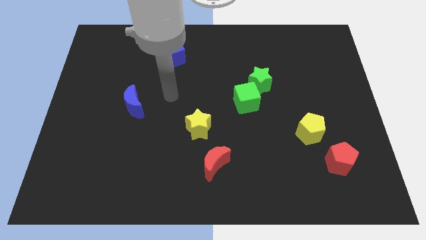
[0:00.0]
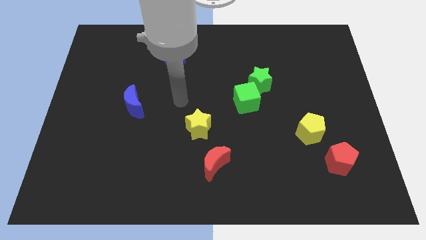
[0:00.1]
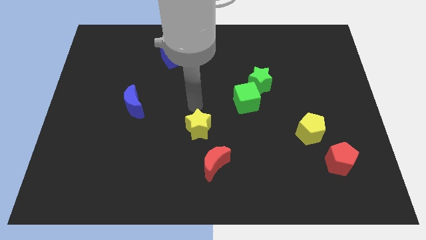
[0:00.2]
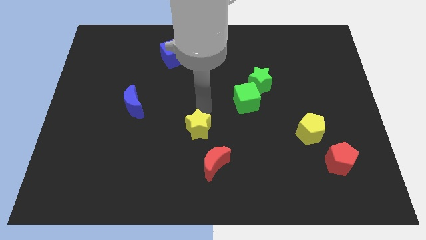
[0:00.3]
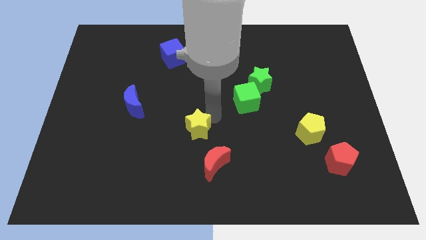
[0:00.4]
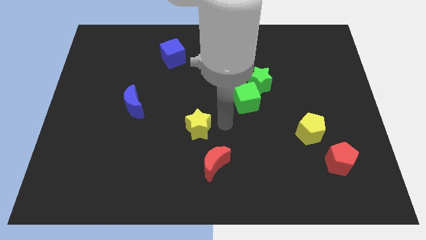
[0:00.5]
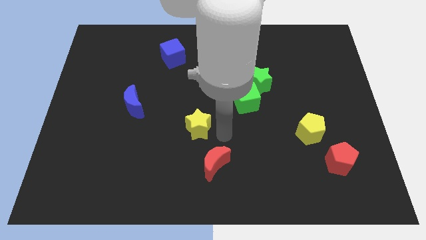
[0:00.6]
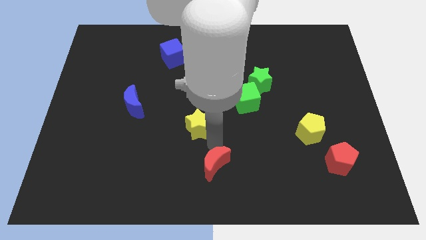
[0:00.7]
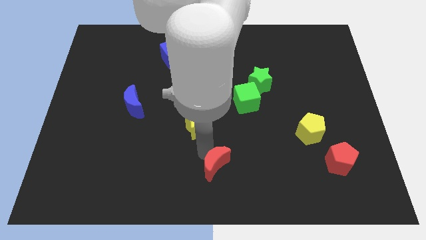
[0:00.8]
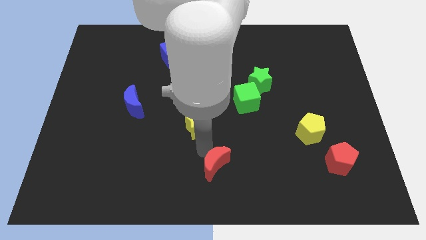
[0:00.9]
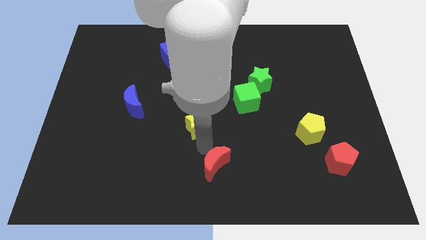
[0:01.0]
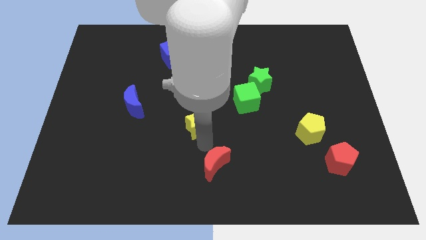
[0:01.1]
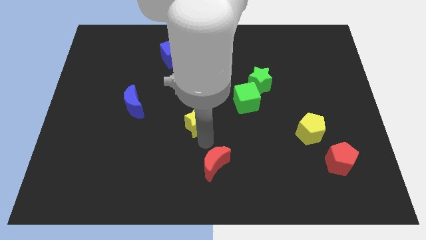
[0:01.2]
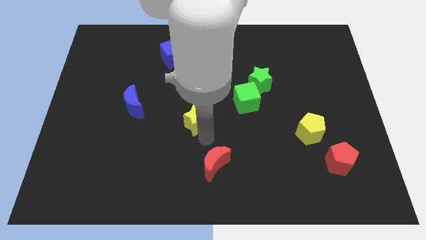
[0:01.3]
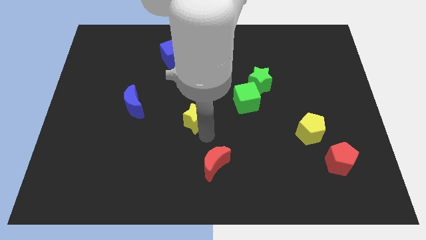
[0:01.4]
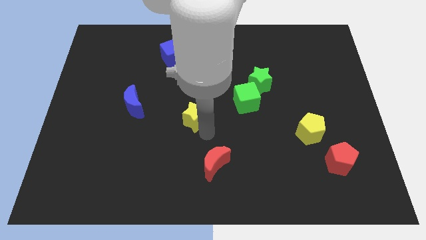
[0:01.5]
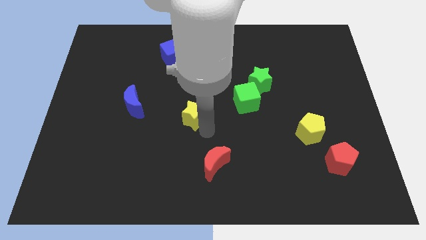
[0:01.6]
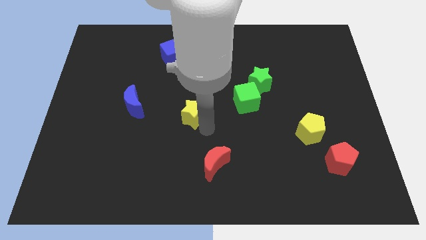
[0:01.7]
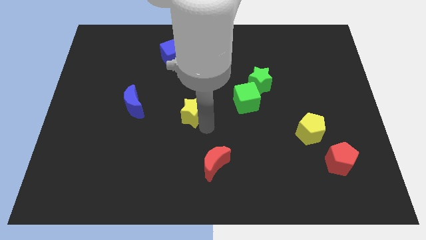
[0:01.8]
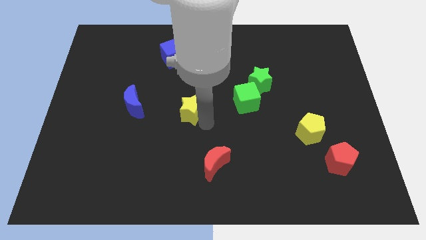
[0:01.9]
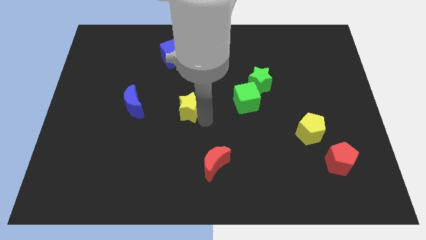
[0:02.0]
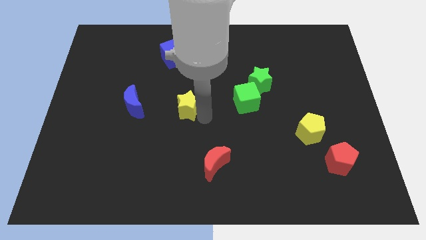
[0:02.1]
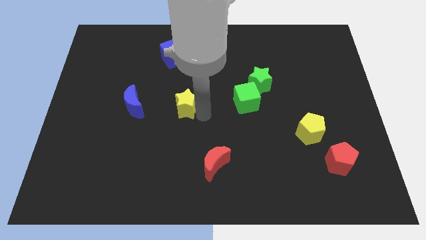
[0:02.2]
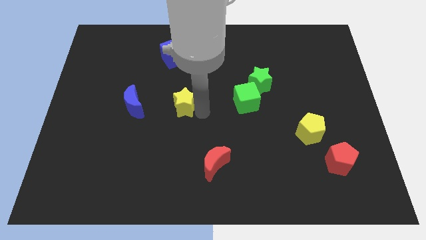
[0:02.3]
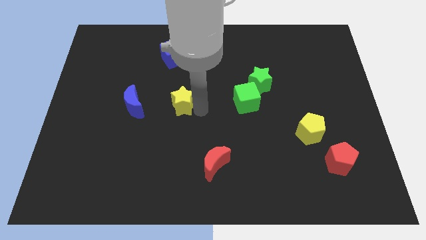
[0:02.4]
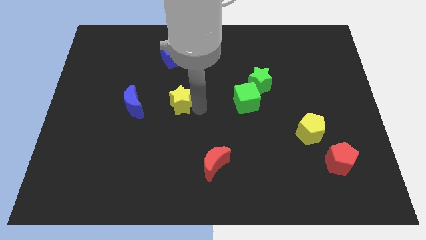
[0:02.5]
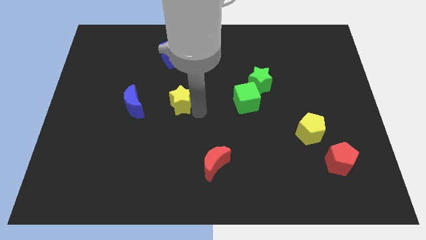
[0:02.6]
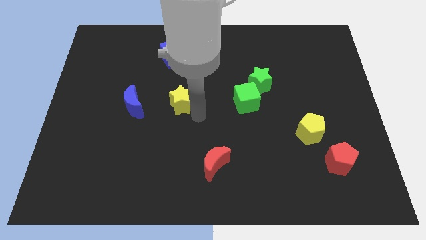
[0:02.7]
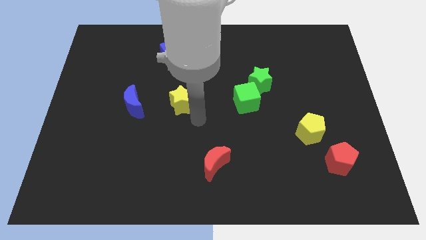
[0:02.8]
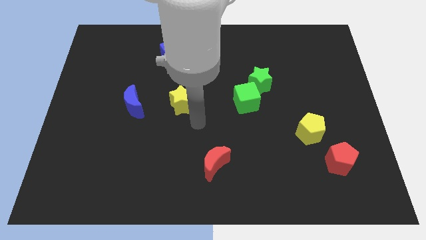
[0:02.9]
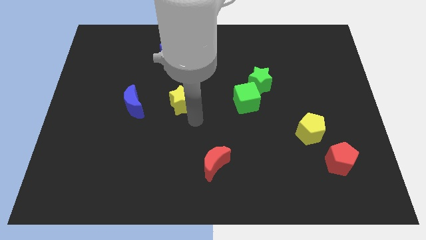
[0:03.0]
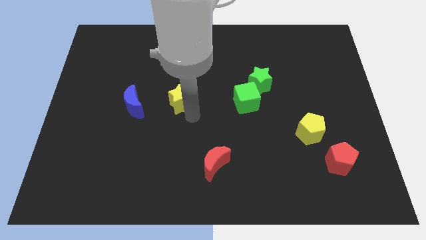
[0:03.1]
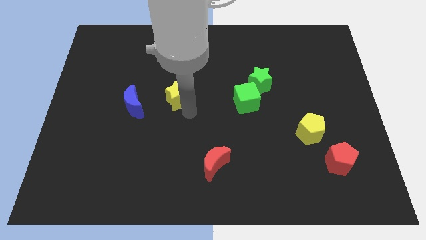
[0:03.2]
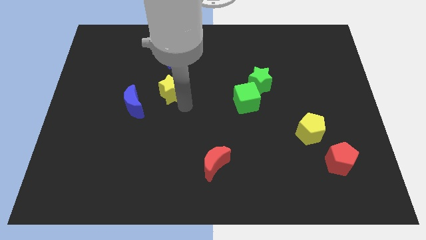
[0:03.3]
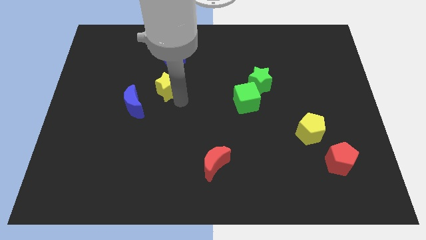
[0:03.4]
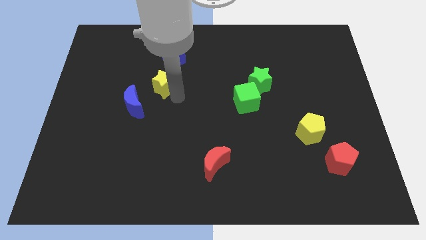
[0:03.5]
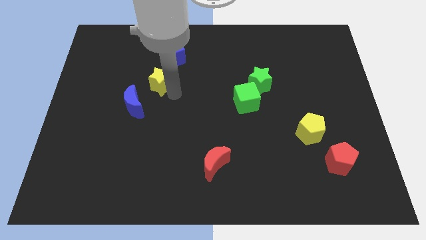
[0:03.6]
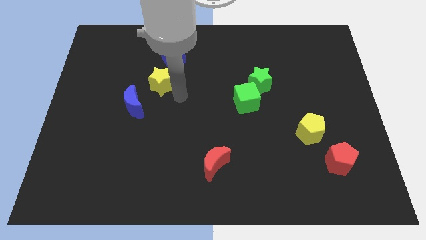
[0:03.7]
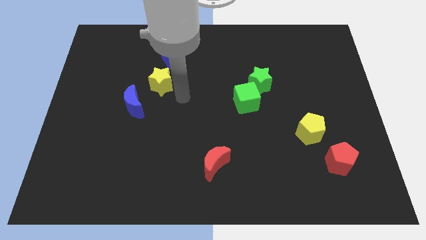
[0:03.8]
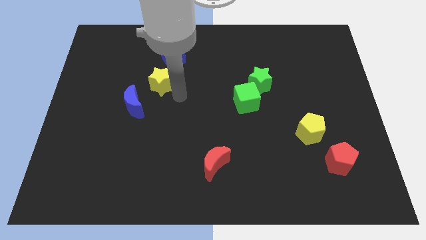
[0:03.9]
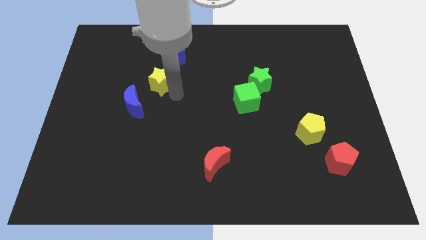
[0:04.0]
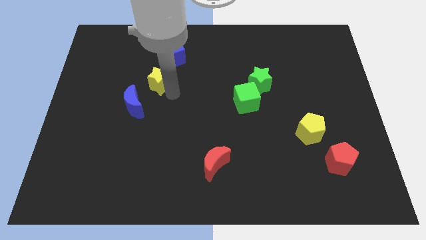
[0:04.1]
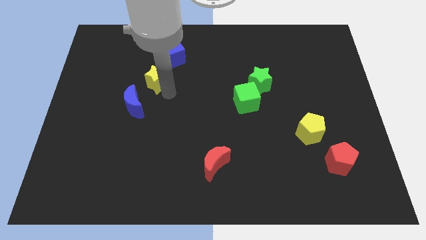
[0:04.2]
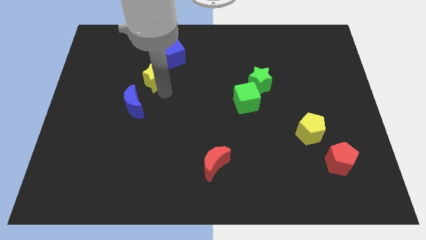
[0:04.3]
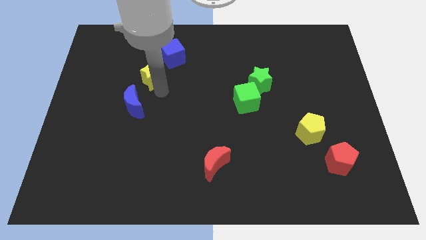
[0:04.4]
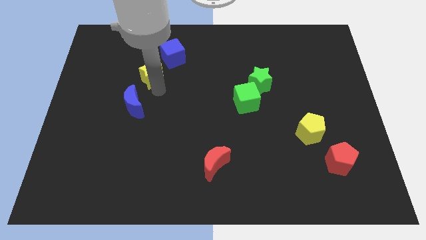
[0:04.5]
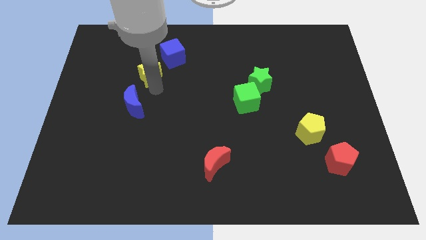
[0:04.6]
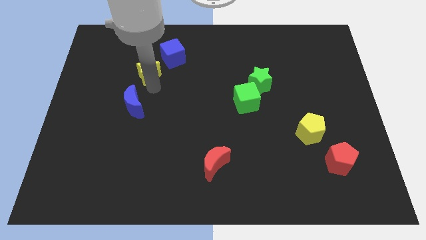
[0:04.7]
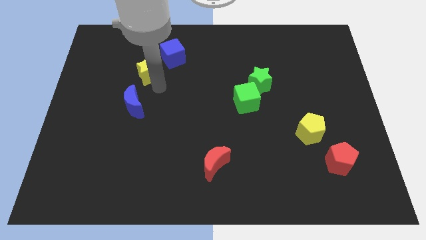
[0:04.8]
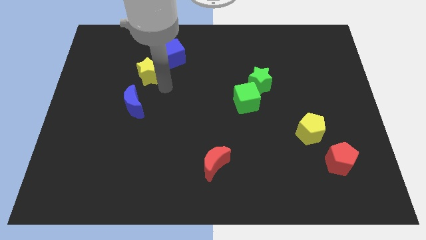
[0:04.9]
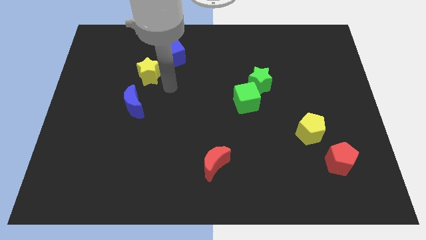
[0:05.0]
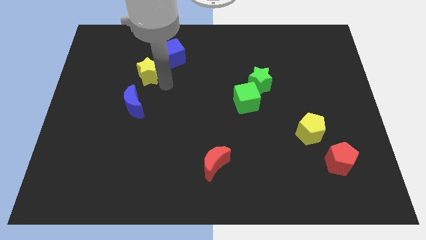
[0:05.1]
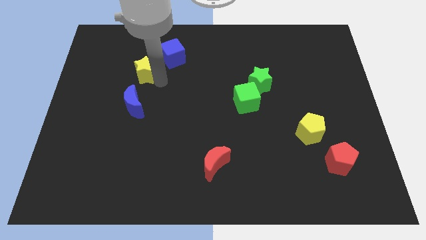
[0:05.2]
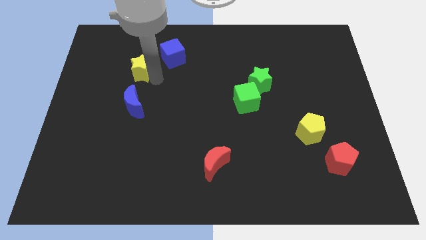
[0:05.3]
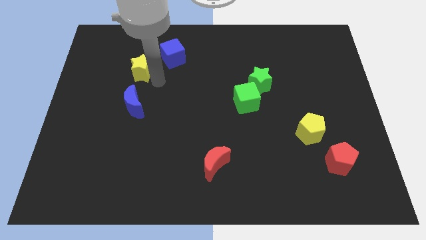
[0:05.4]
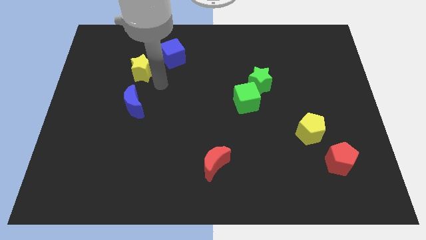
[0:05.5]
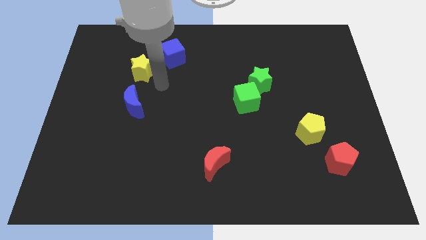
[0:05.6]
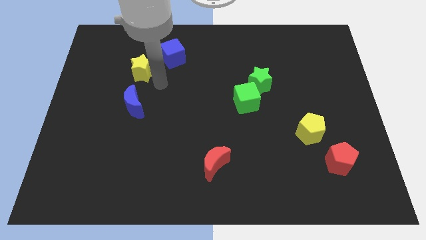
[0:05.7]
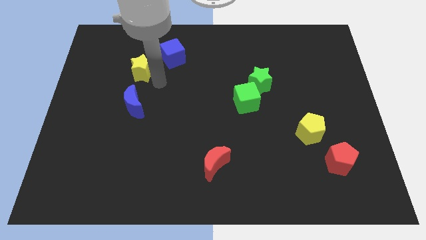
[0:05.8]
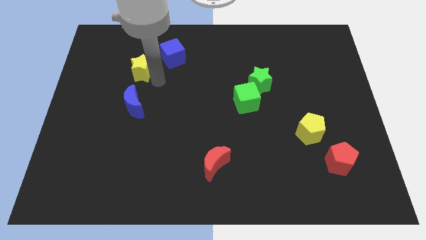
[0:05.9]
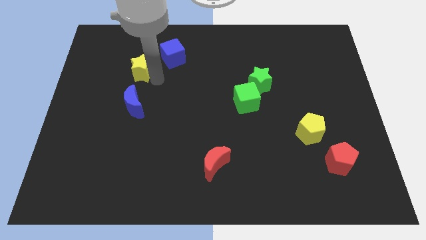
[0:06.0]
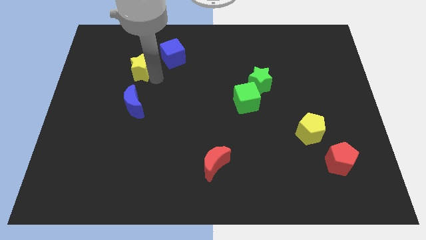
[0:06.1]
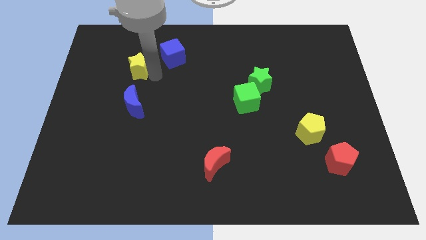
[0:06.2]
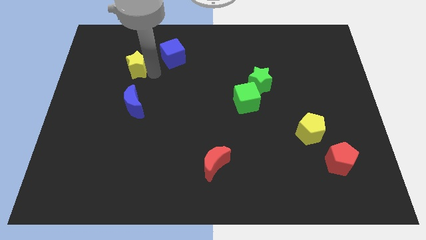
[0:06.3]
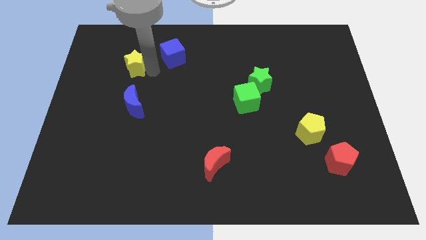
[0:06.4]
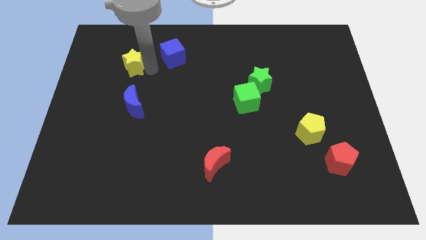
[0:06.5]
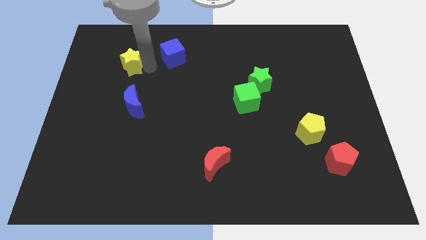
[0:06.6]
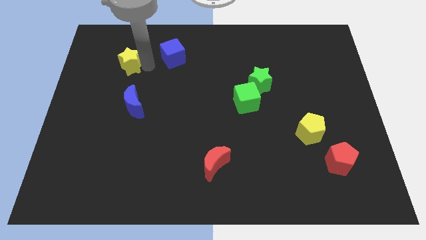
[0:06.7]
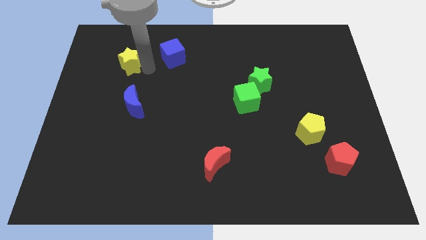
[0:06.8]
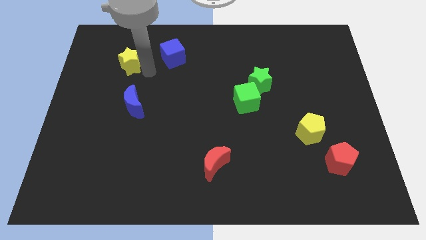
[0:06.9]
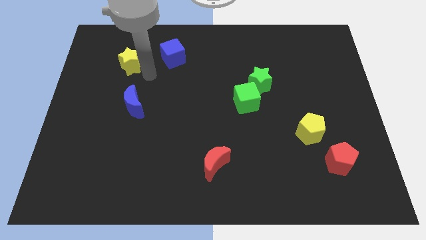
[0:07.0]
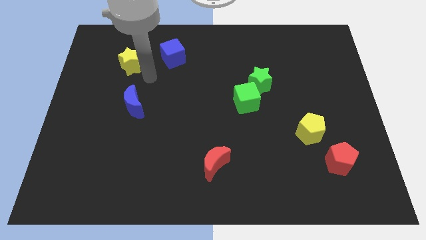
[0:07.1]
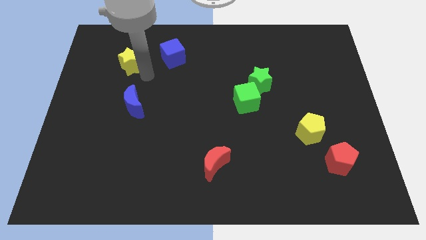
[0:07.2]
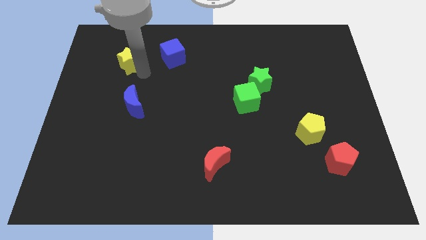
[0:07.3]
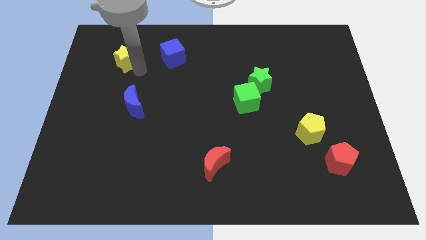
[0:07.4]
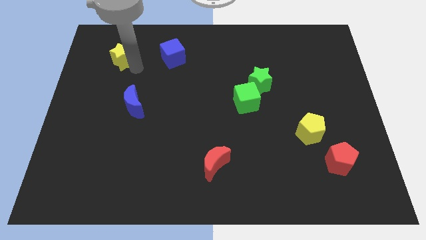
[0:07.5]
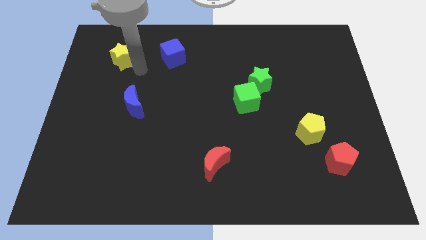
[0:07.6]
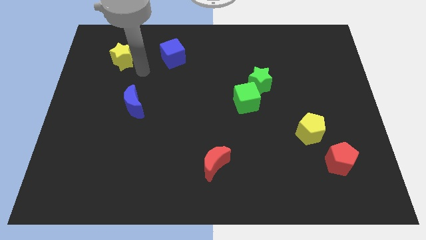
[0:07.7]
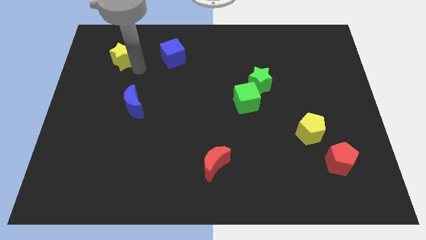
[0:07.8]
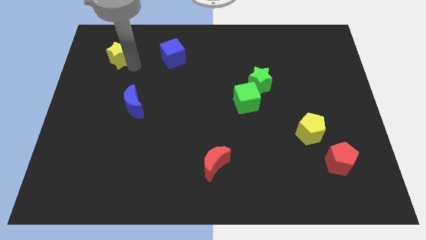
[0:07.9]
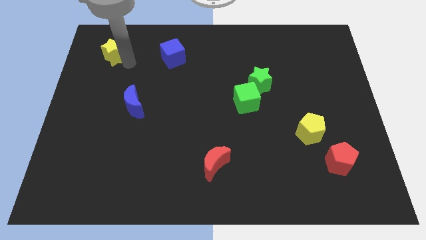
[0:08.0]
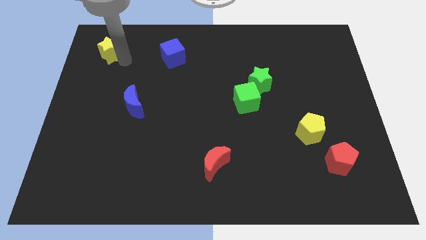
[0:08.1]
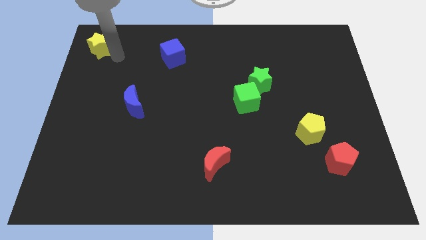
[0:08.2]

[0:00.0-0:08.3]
slide the yellow star to the top left
